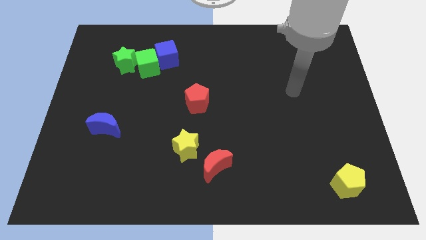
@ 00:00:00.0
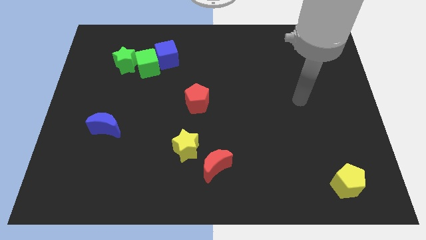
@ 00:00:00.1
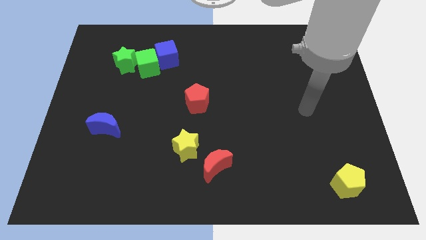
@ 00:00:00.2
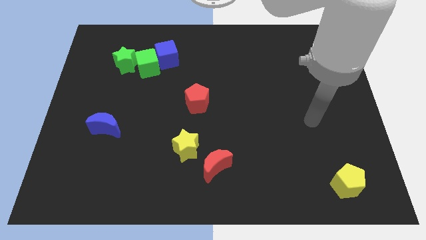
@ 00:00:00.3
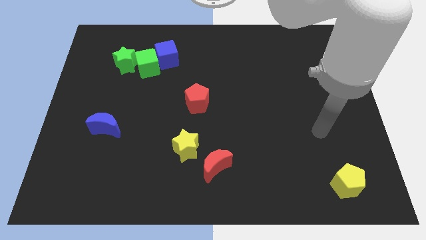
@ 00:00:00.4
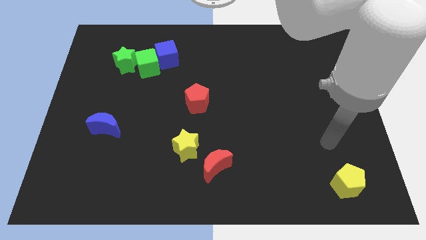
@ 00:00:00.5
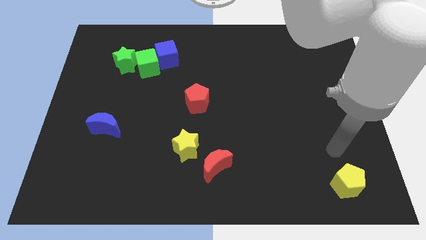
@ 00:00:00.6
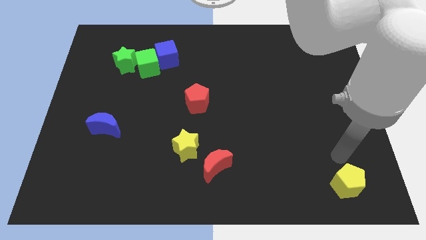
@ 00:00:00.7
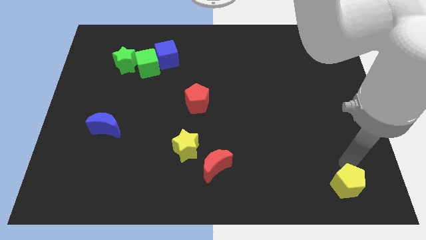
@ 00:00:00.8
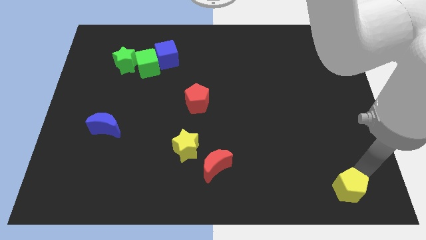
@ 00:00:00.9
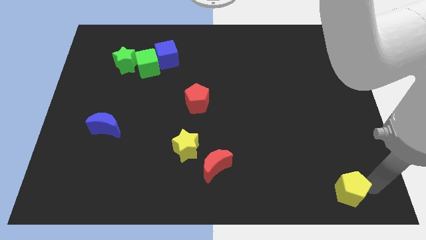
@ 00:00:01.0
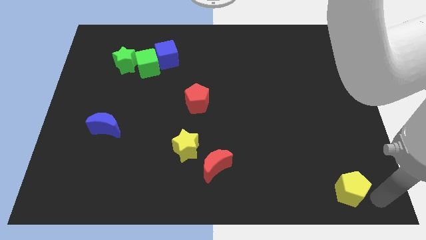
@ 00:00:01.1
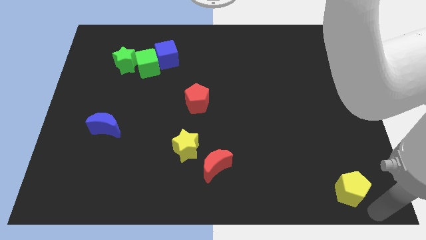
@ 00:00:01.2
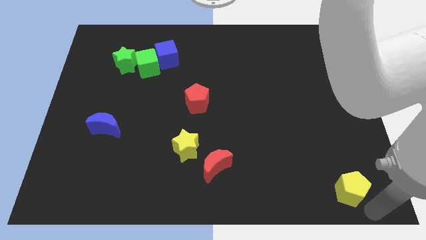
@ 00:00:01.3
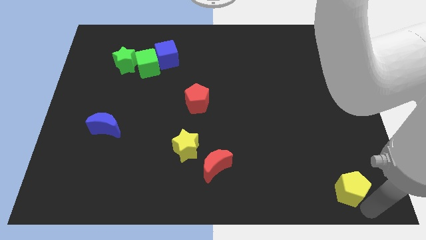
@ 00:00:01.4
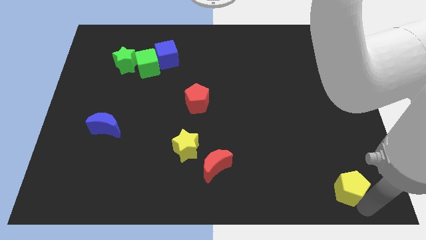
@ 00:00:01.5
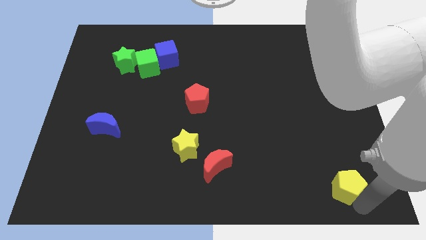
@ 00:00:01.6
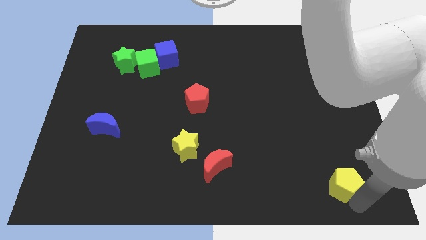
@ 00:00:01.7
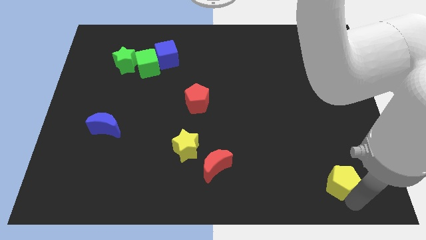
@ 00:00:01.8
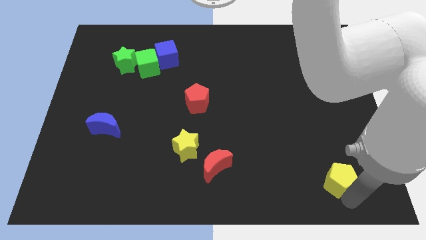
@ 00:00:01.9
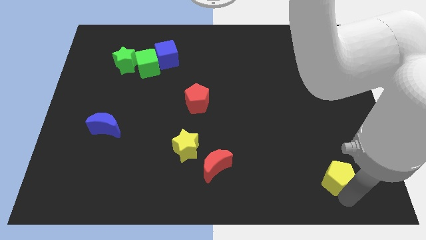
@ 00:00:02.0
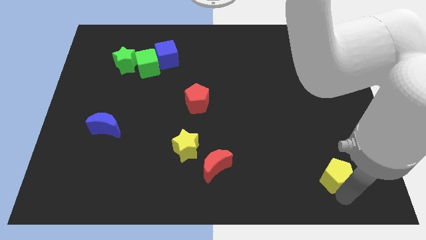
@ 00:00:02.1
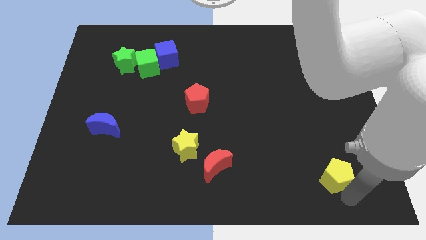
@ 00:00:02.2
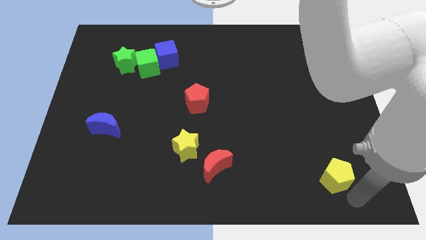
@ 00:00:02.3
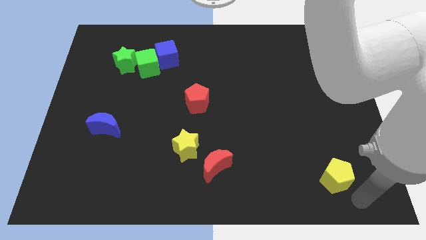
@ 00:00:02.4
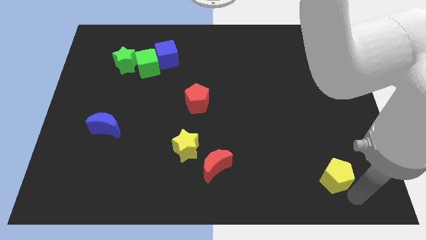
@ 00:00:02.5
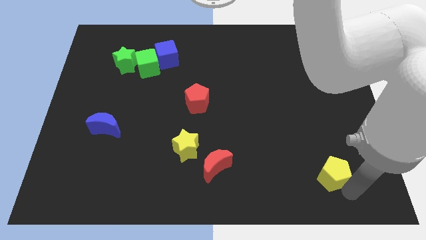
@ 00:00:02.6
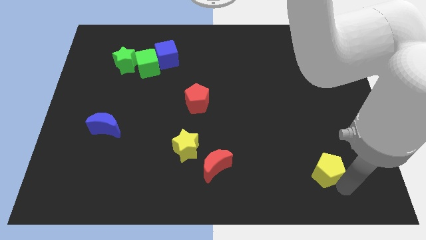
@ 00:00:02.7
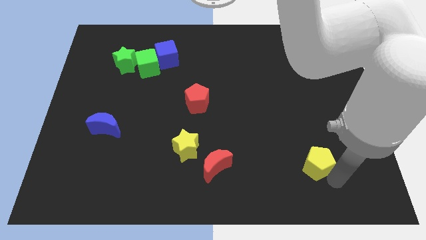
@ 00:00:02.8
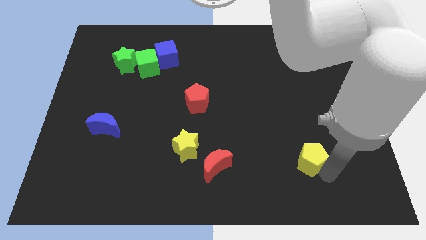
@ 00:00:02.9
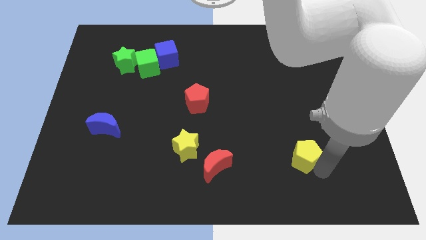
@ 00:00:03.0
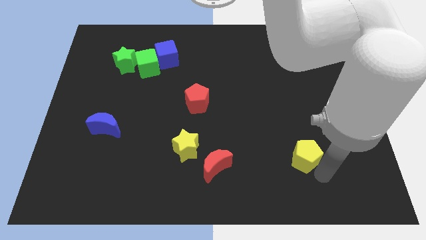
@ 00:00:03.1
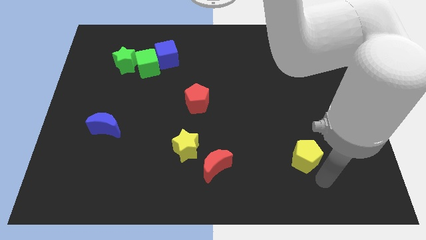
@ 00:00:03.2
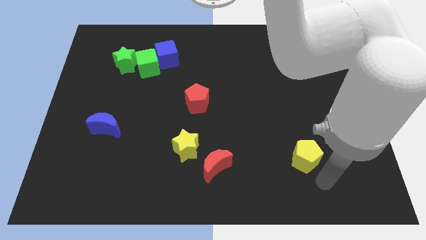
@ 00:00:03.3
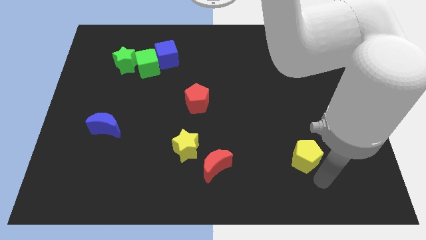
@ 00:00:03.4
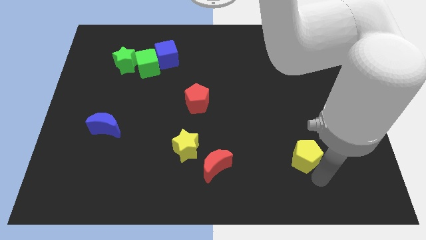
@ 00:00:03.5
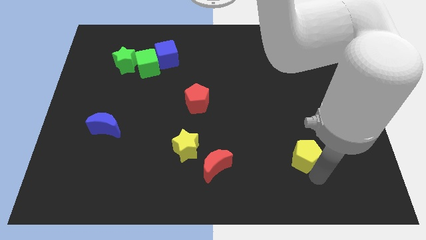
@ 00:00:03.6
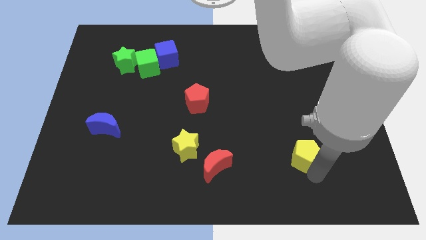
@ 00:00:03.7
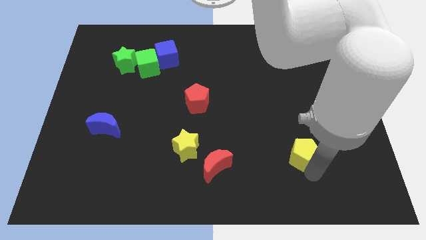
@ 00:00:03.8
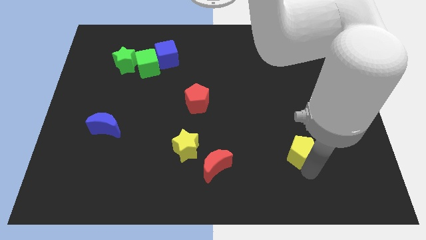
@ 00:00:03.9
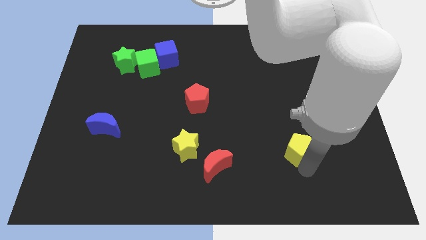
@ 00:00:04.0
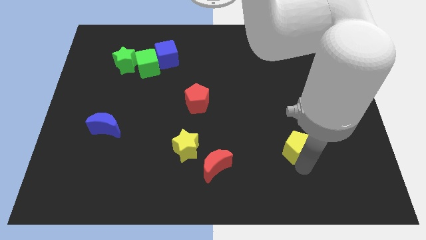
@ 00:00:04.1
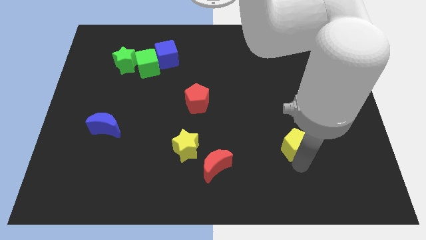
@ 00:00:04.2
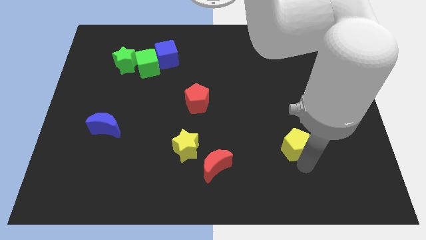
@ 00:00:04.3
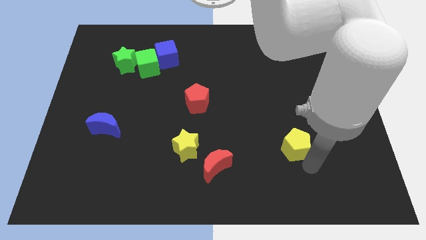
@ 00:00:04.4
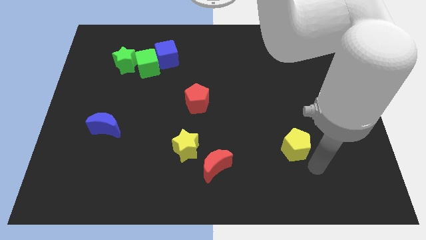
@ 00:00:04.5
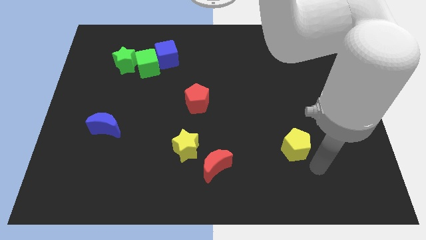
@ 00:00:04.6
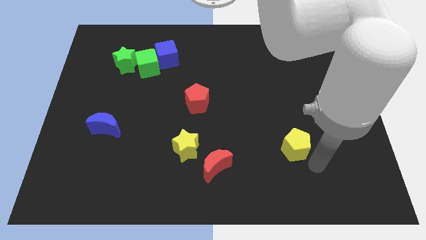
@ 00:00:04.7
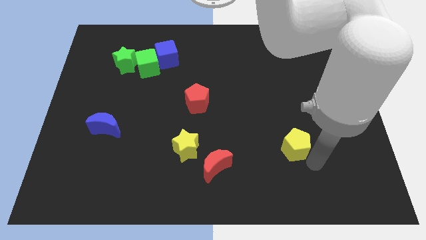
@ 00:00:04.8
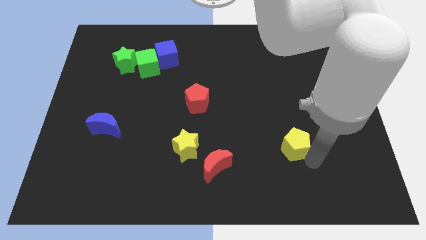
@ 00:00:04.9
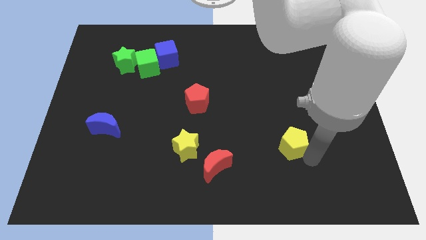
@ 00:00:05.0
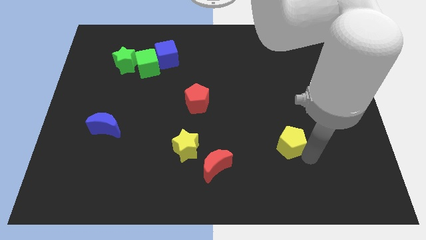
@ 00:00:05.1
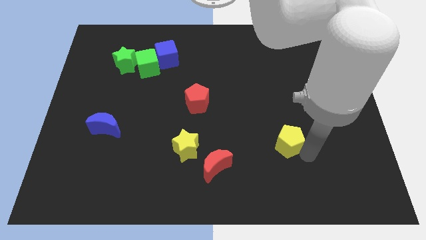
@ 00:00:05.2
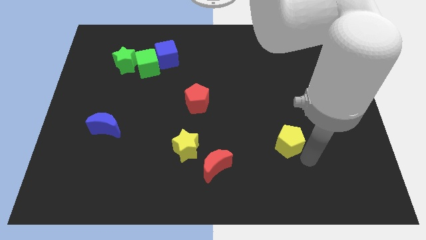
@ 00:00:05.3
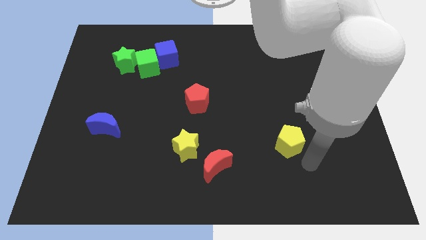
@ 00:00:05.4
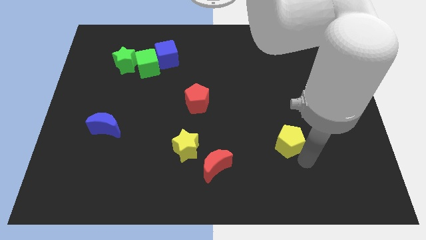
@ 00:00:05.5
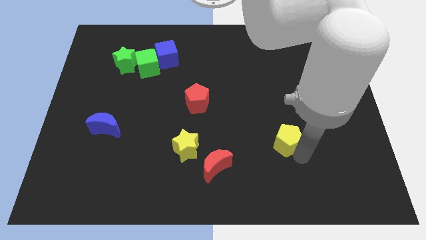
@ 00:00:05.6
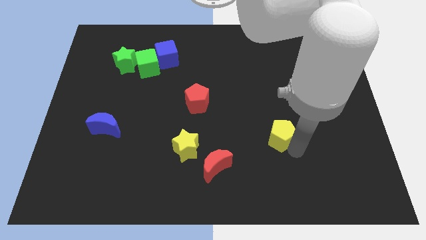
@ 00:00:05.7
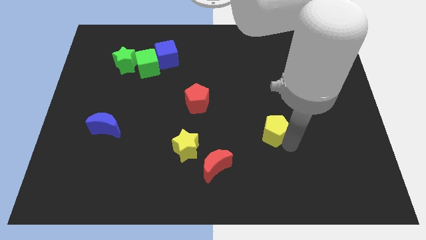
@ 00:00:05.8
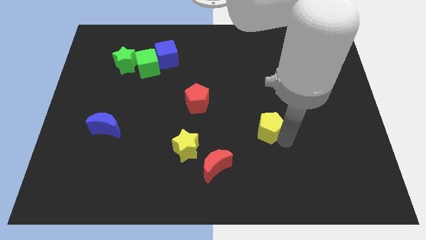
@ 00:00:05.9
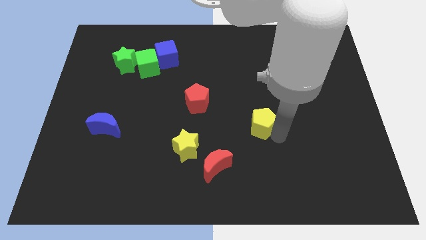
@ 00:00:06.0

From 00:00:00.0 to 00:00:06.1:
move the yellow pentagon diagonally up and left

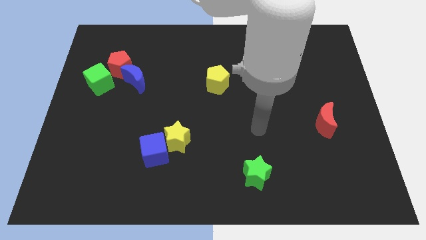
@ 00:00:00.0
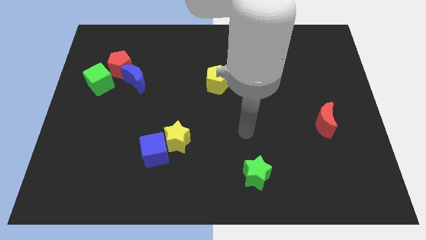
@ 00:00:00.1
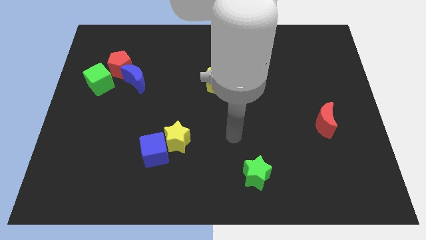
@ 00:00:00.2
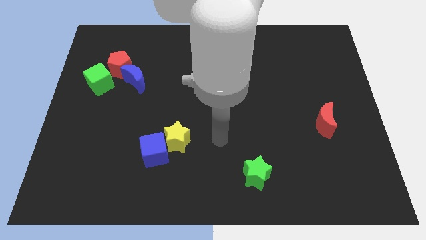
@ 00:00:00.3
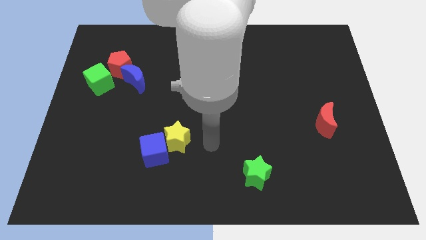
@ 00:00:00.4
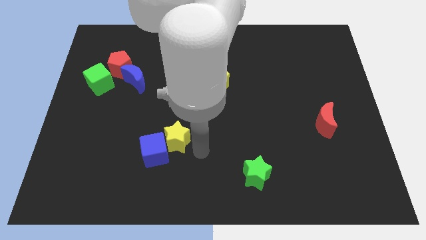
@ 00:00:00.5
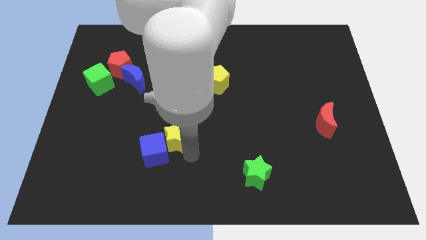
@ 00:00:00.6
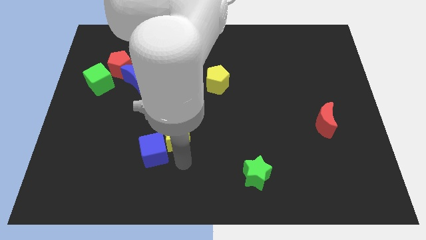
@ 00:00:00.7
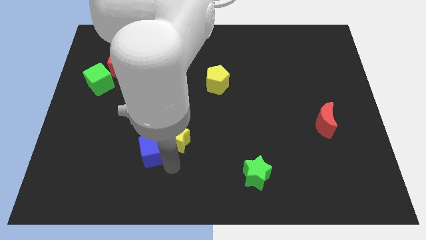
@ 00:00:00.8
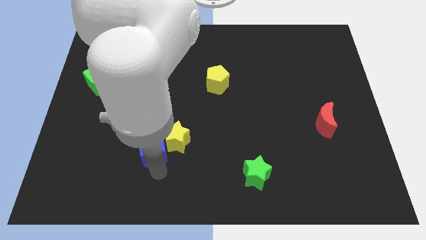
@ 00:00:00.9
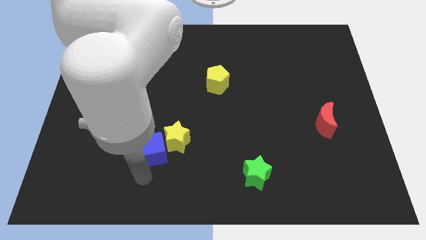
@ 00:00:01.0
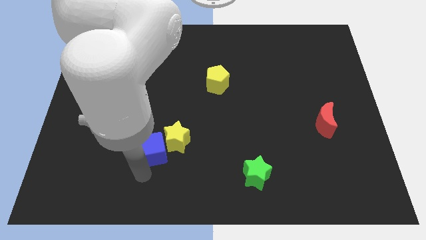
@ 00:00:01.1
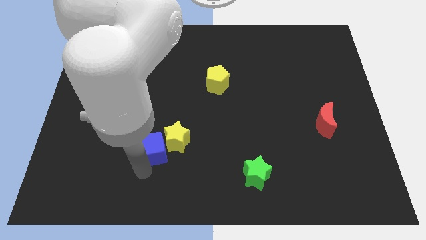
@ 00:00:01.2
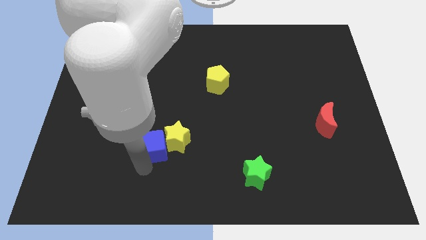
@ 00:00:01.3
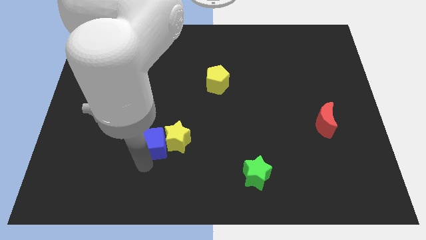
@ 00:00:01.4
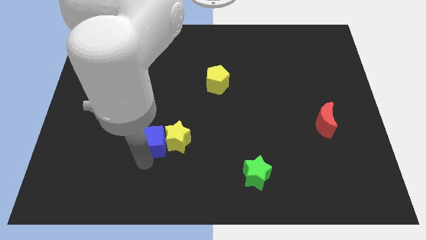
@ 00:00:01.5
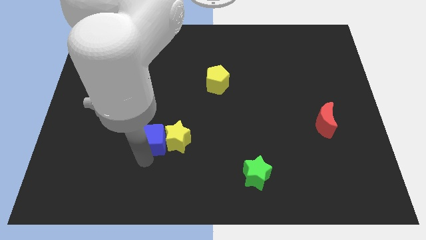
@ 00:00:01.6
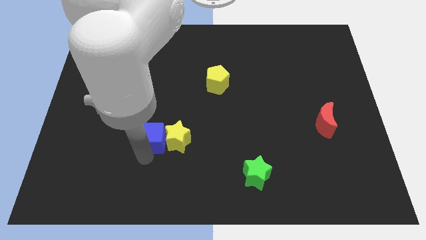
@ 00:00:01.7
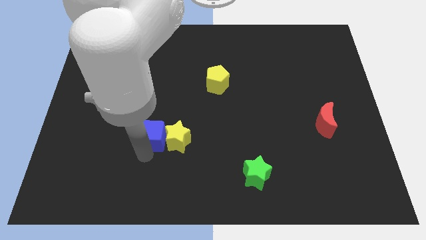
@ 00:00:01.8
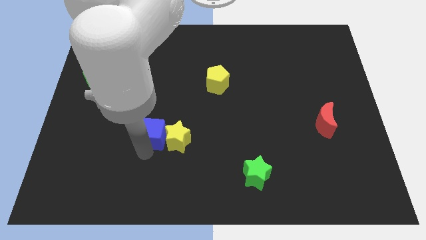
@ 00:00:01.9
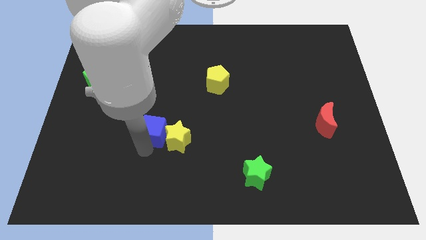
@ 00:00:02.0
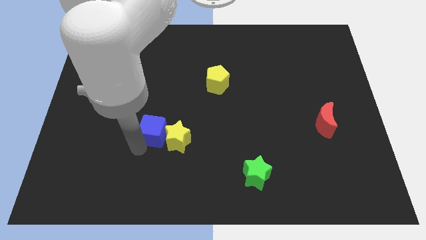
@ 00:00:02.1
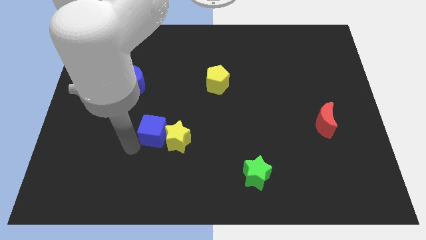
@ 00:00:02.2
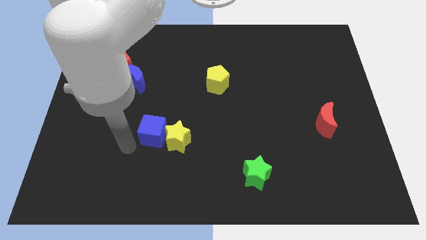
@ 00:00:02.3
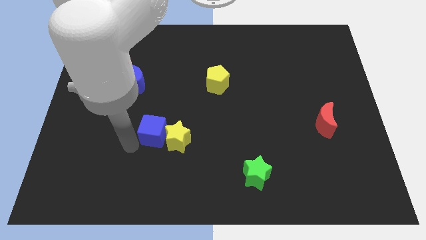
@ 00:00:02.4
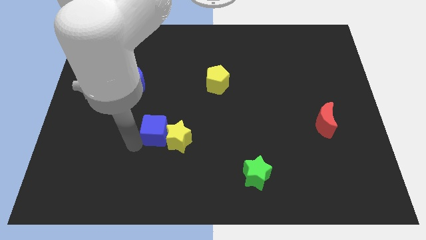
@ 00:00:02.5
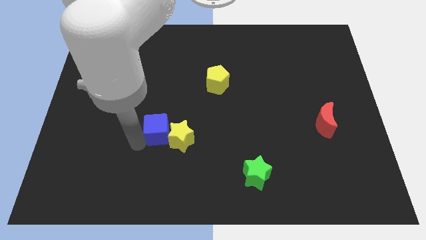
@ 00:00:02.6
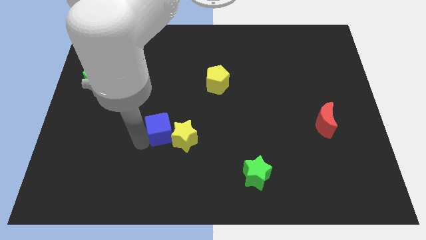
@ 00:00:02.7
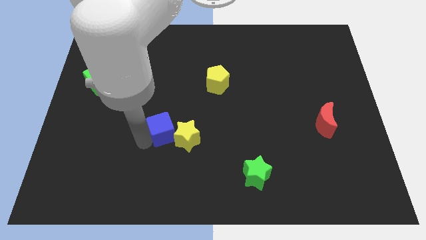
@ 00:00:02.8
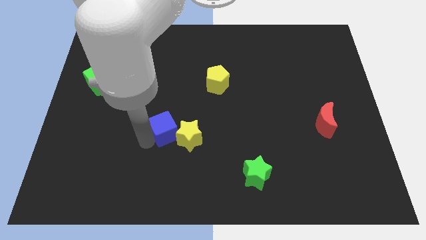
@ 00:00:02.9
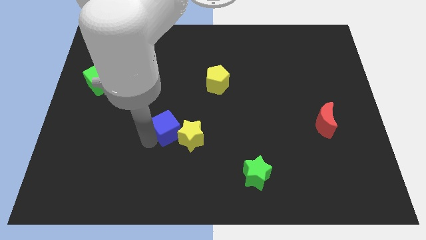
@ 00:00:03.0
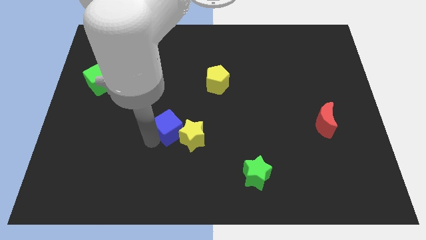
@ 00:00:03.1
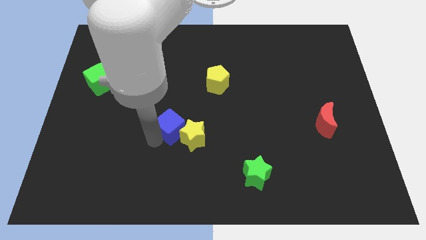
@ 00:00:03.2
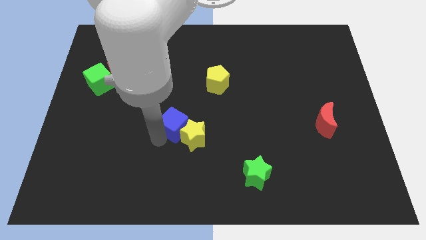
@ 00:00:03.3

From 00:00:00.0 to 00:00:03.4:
move the blue cube somewhat diagonally up and to the right
